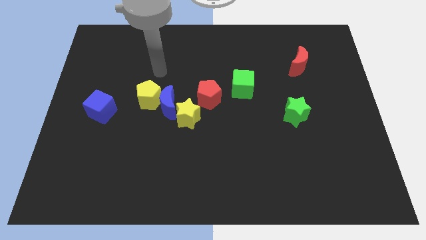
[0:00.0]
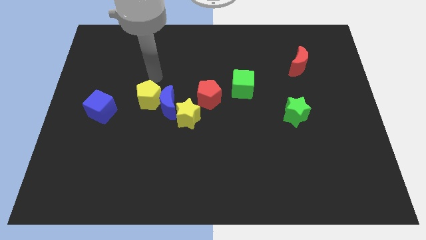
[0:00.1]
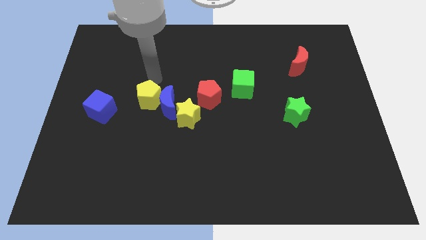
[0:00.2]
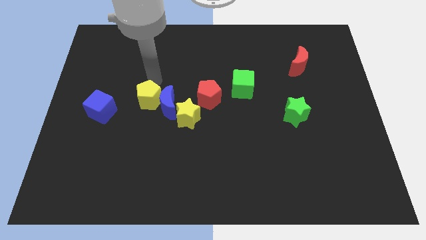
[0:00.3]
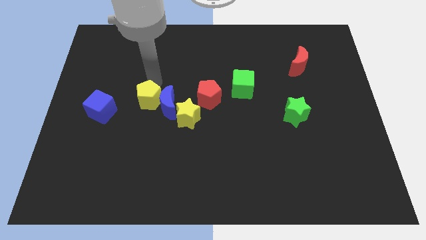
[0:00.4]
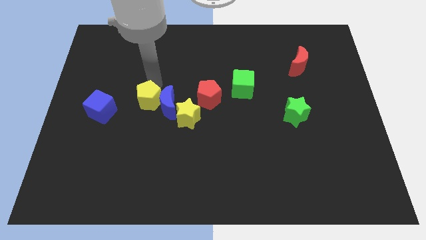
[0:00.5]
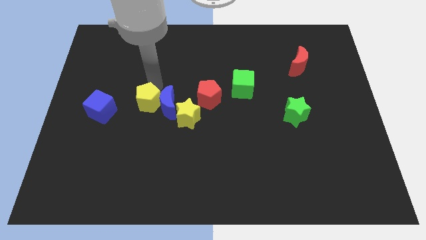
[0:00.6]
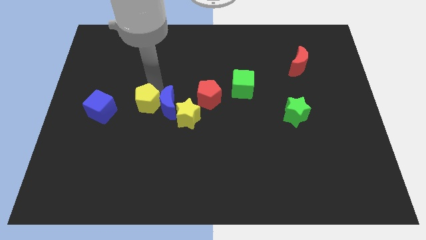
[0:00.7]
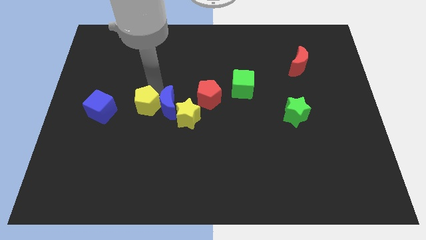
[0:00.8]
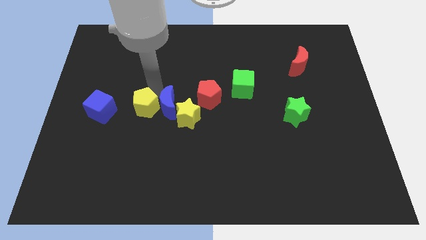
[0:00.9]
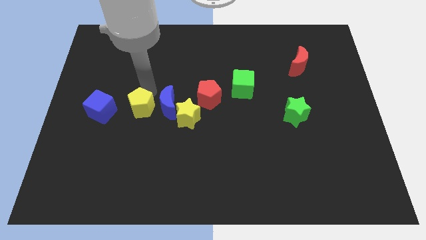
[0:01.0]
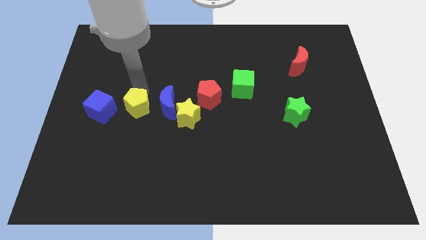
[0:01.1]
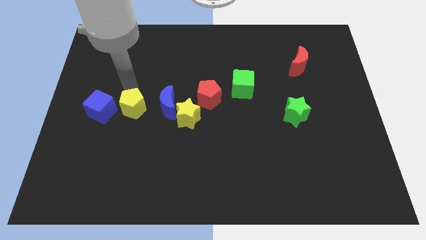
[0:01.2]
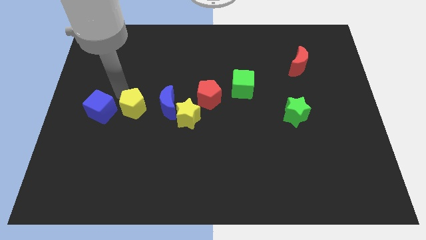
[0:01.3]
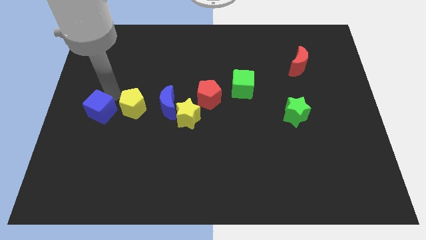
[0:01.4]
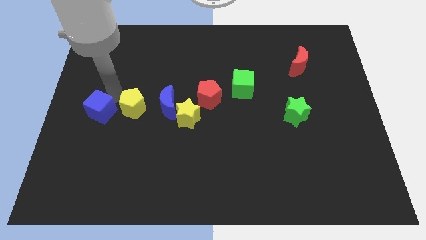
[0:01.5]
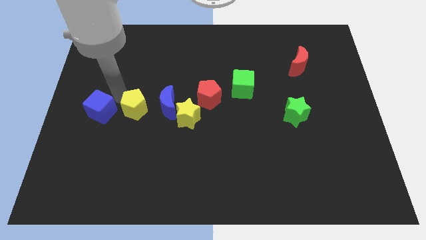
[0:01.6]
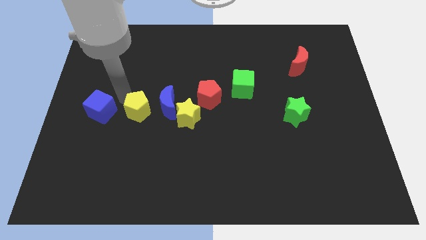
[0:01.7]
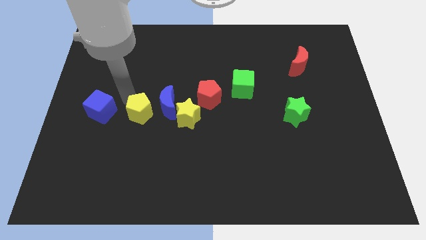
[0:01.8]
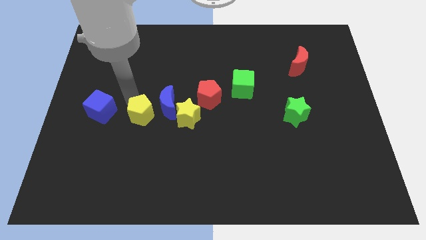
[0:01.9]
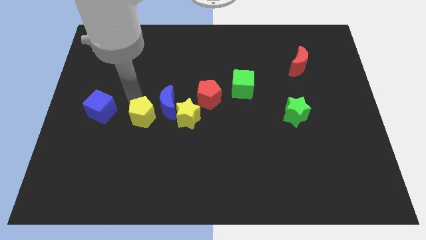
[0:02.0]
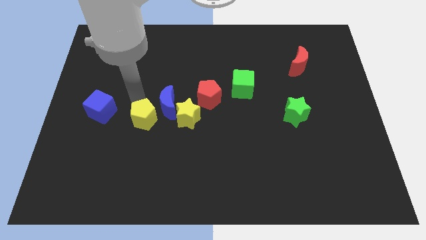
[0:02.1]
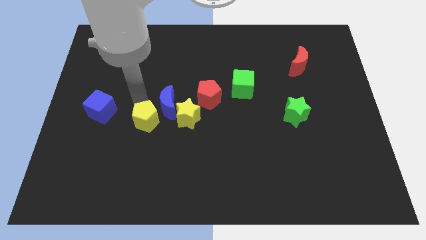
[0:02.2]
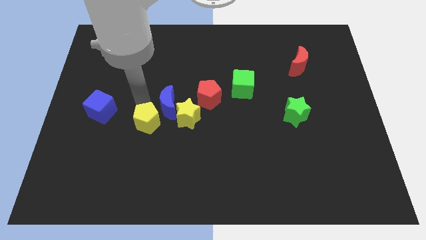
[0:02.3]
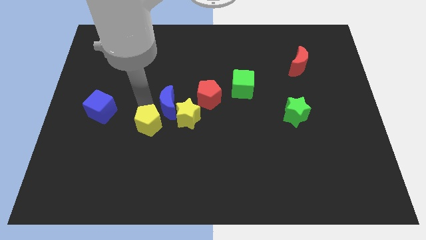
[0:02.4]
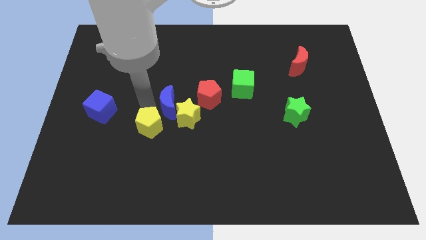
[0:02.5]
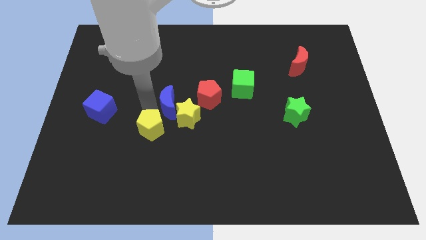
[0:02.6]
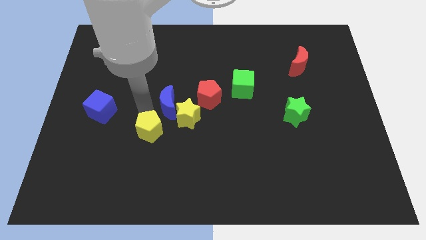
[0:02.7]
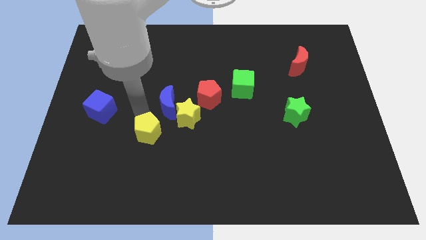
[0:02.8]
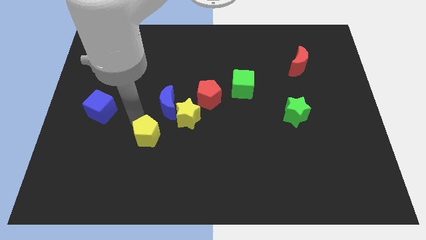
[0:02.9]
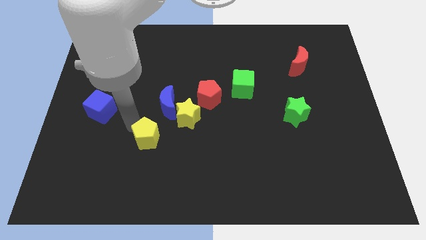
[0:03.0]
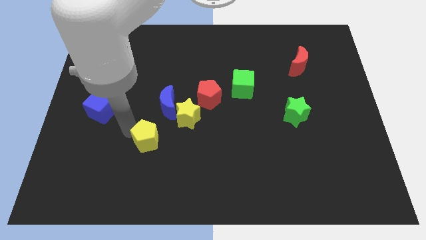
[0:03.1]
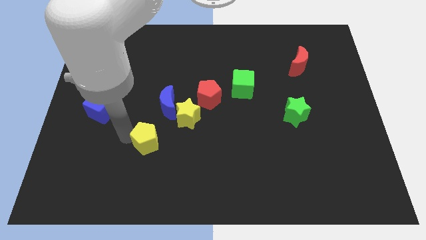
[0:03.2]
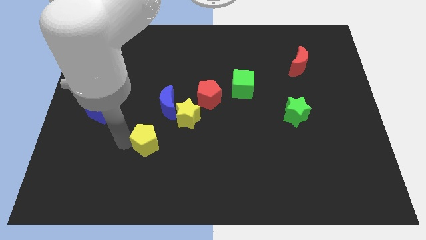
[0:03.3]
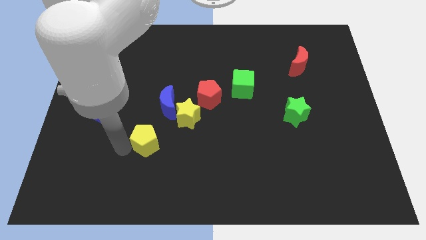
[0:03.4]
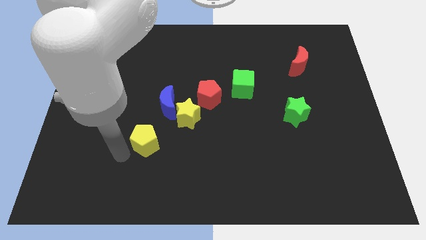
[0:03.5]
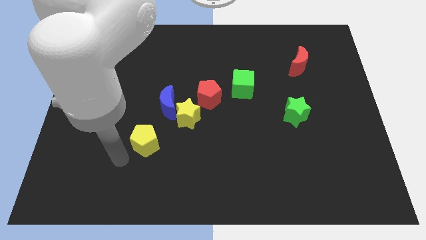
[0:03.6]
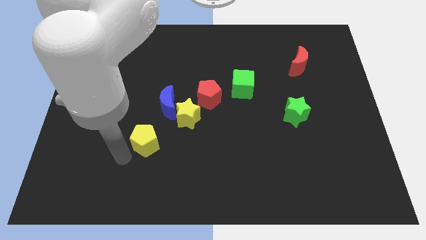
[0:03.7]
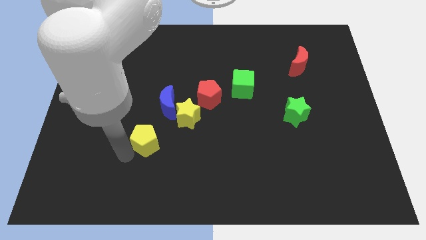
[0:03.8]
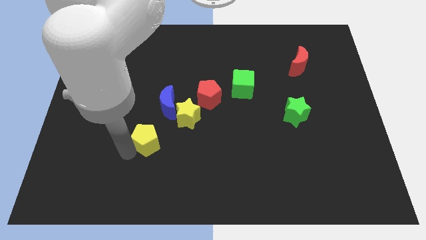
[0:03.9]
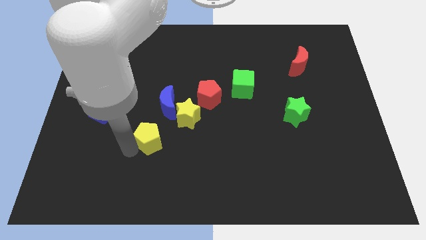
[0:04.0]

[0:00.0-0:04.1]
slide the yellow pentagon diagonally downwards and to the right a little bit

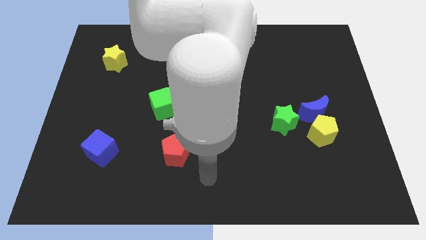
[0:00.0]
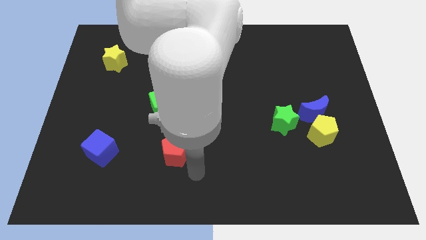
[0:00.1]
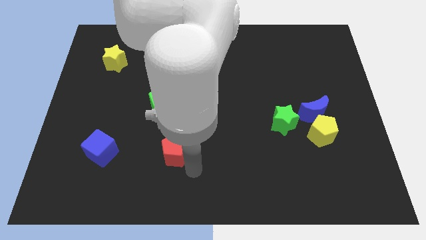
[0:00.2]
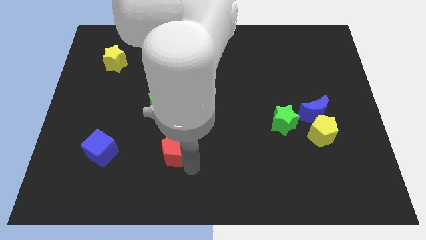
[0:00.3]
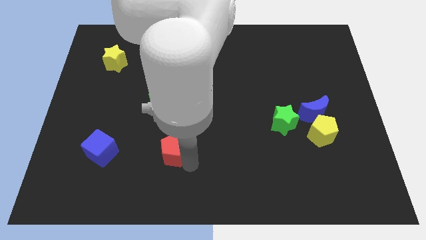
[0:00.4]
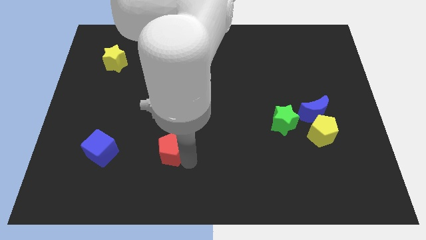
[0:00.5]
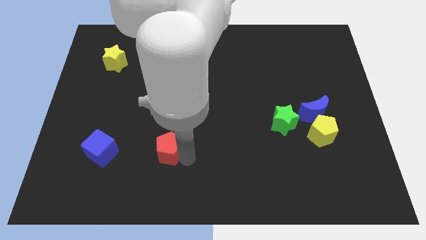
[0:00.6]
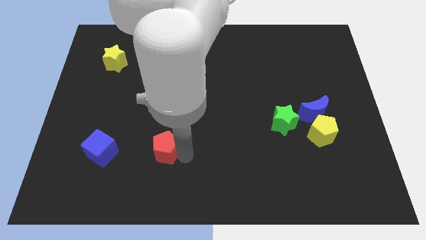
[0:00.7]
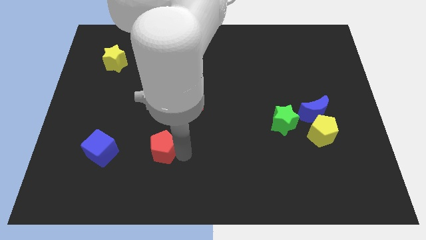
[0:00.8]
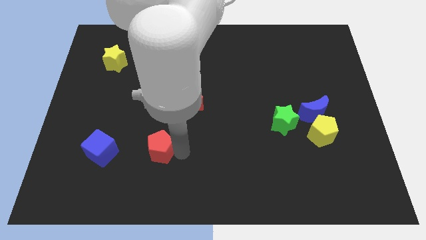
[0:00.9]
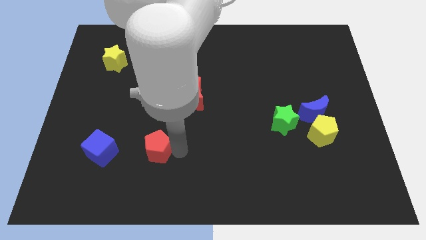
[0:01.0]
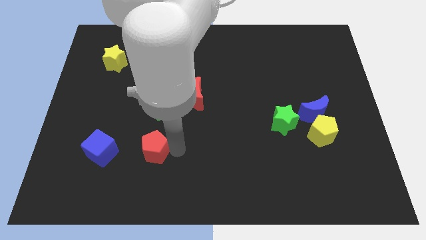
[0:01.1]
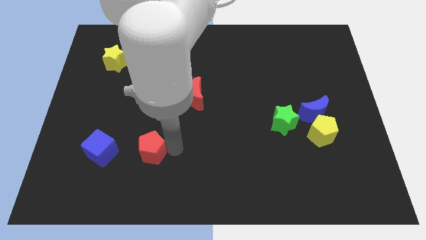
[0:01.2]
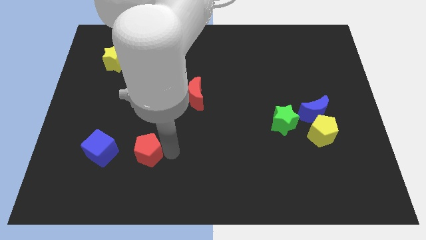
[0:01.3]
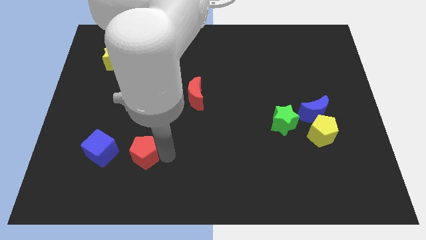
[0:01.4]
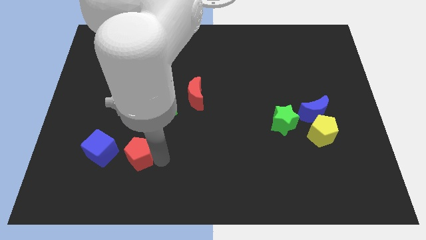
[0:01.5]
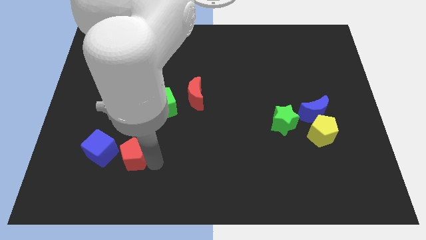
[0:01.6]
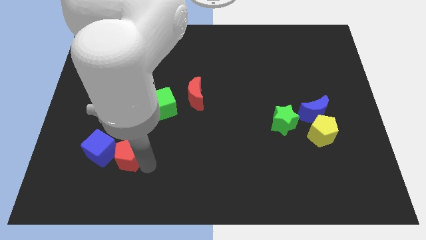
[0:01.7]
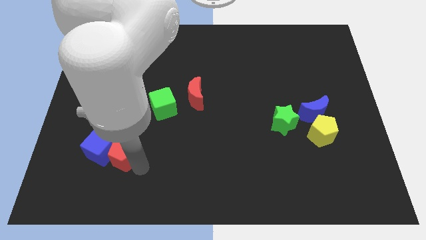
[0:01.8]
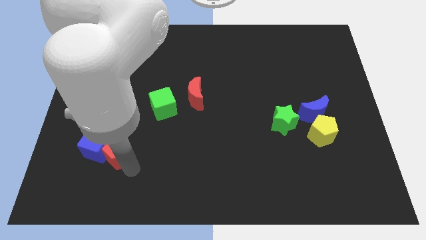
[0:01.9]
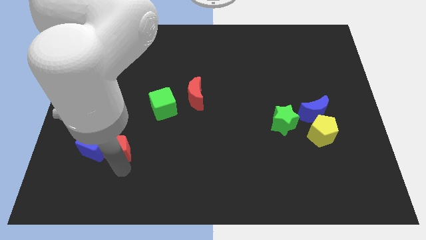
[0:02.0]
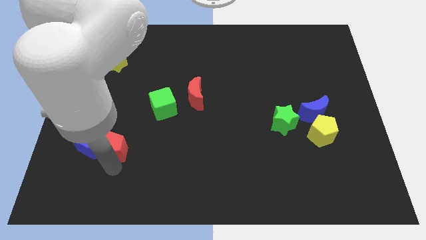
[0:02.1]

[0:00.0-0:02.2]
push the red pentagon up and then to the left a little bit

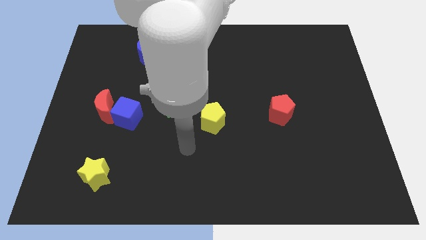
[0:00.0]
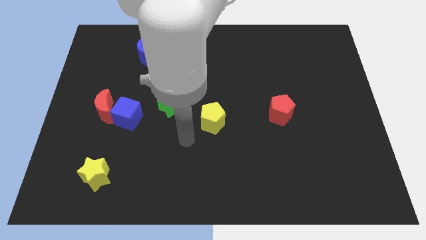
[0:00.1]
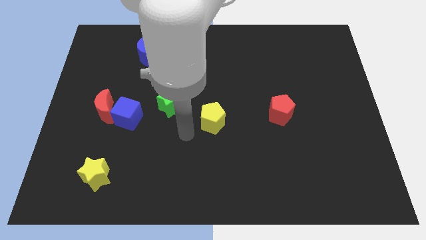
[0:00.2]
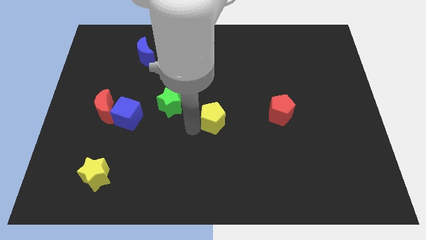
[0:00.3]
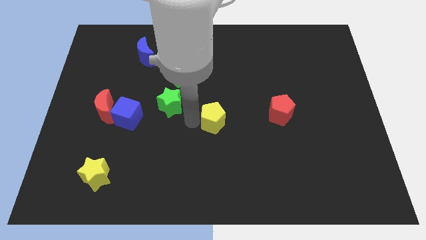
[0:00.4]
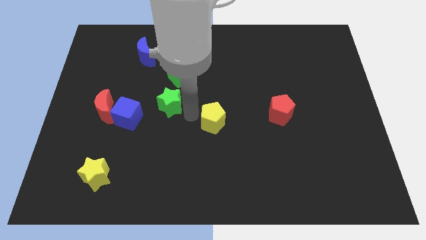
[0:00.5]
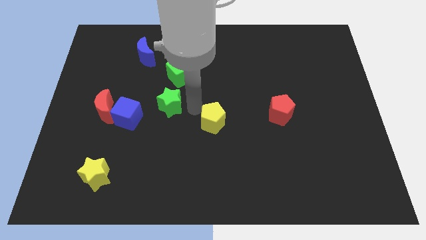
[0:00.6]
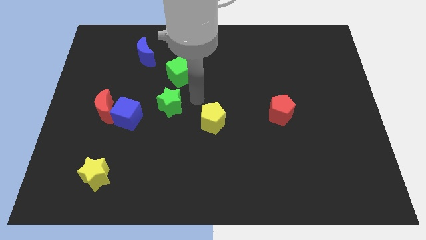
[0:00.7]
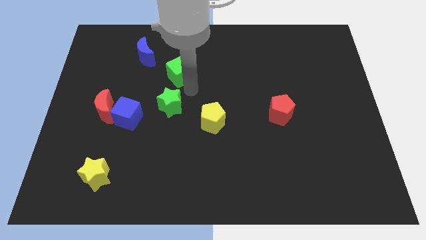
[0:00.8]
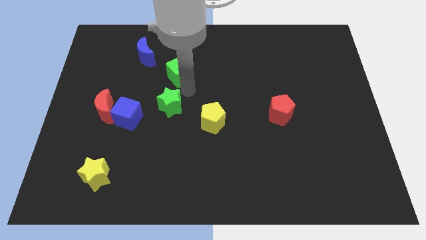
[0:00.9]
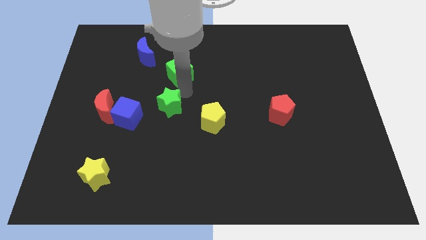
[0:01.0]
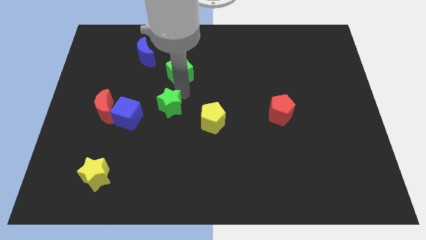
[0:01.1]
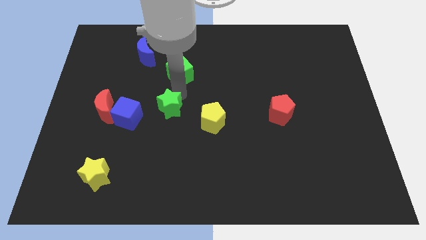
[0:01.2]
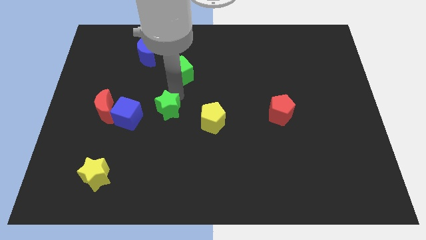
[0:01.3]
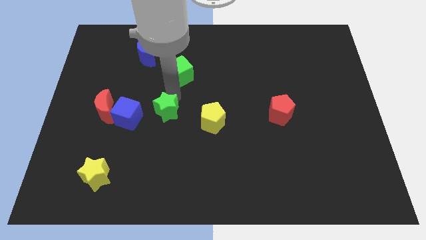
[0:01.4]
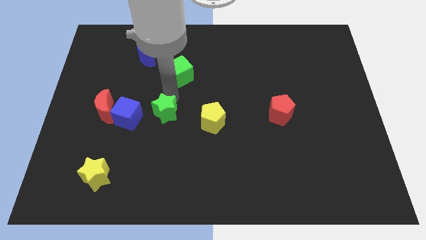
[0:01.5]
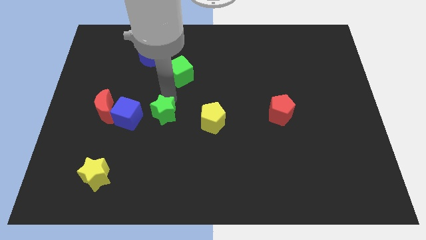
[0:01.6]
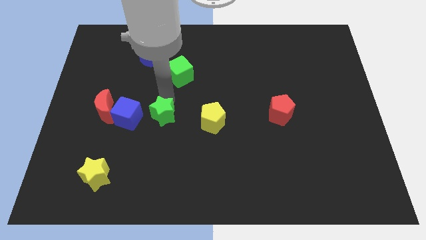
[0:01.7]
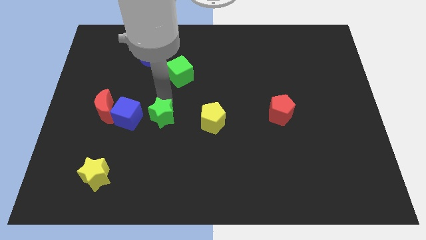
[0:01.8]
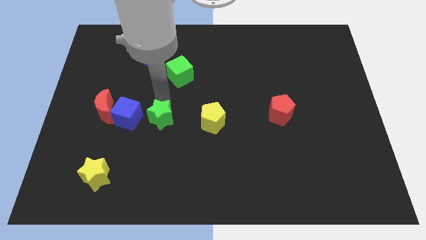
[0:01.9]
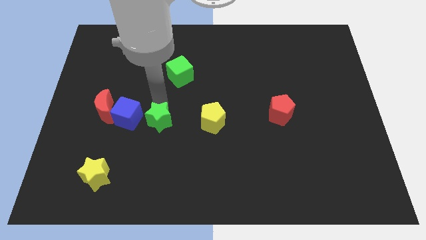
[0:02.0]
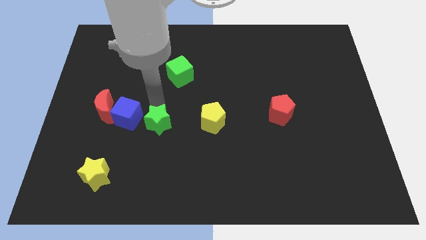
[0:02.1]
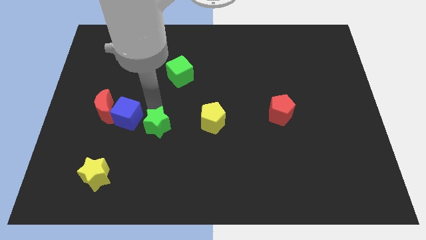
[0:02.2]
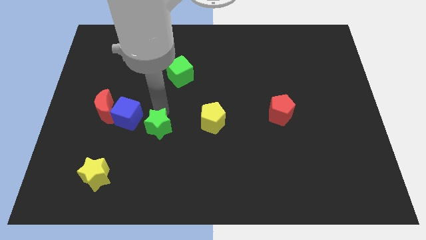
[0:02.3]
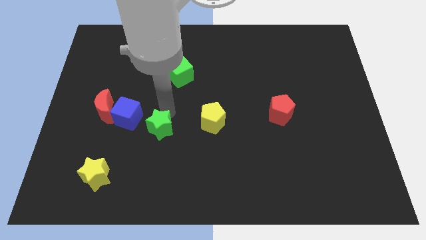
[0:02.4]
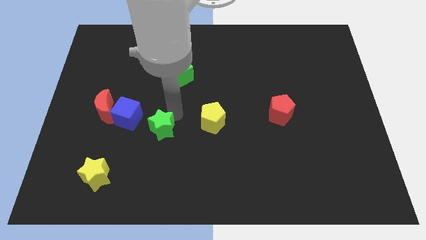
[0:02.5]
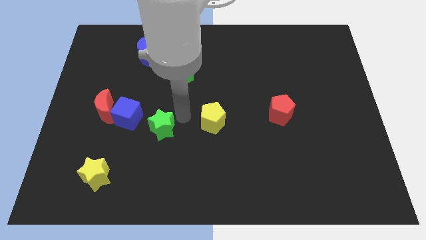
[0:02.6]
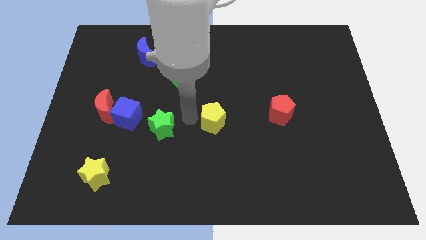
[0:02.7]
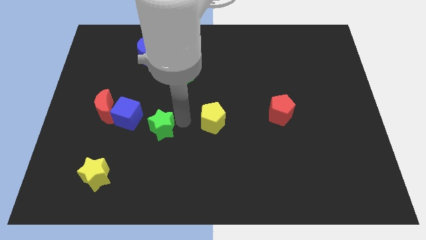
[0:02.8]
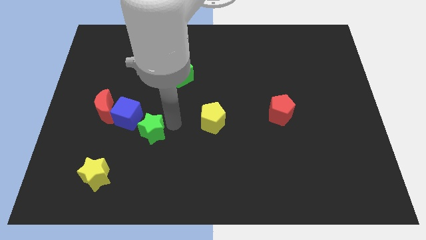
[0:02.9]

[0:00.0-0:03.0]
slightly push the green star down and to the left diagonally
